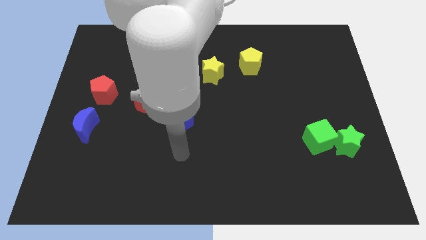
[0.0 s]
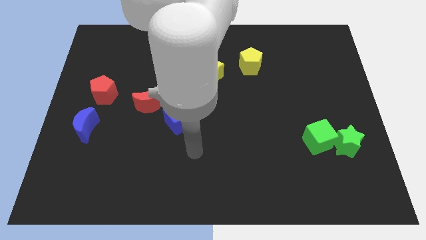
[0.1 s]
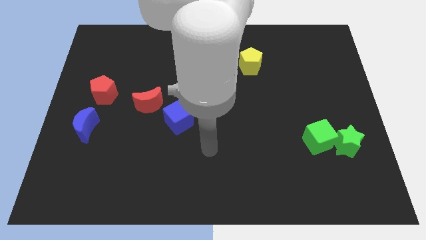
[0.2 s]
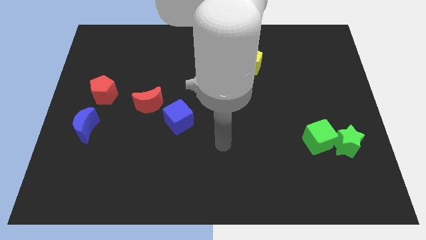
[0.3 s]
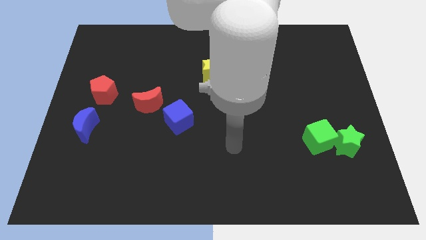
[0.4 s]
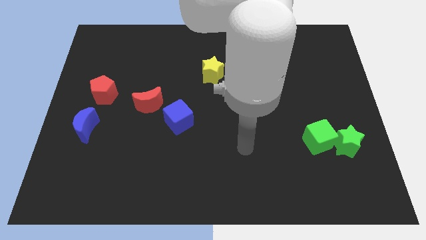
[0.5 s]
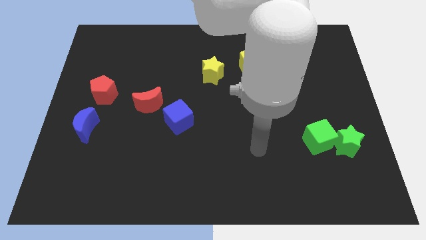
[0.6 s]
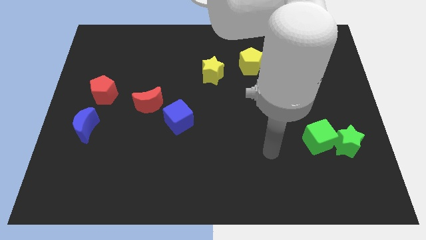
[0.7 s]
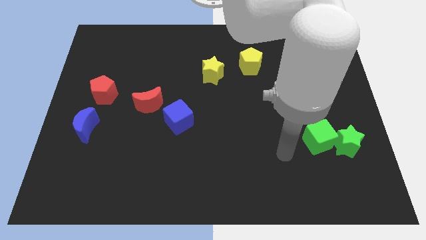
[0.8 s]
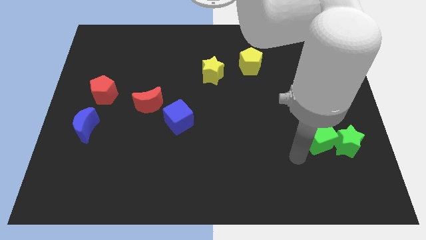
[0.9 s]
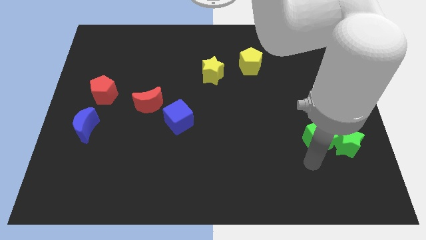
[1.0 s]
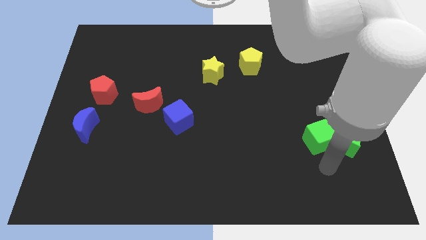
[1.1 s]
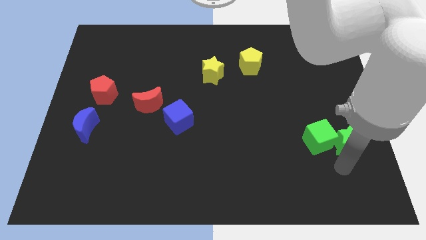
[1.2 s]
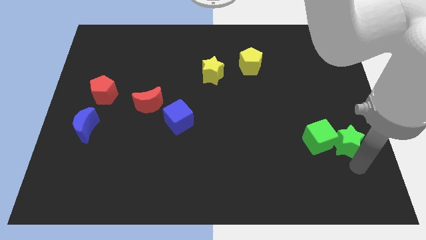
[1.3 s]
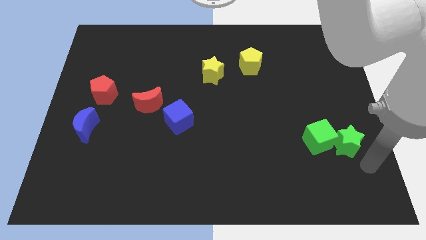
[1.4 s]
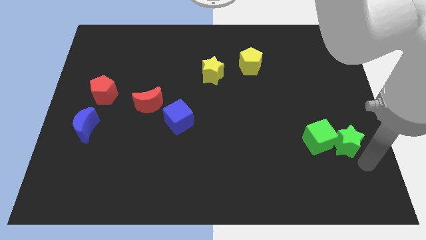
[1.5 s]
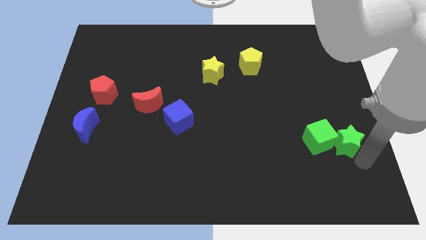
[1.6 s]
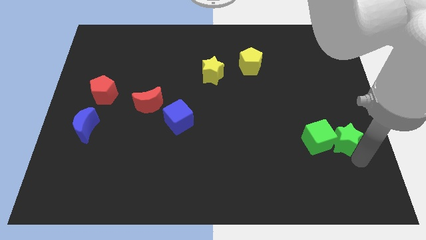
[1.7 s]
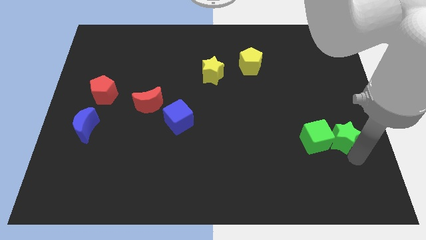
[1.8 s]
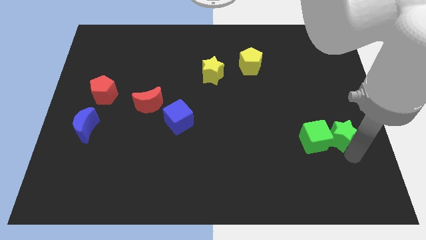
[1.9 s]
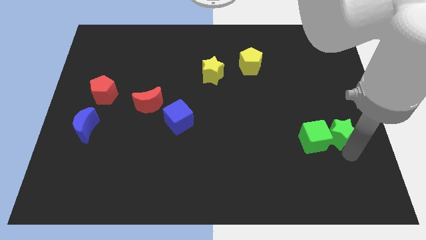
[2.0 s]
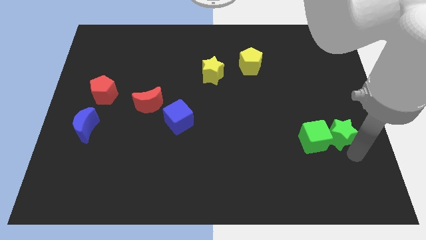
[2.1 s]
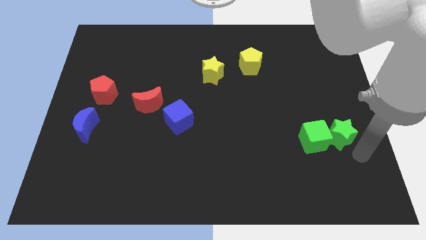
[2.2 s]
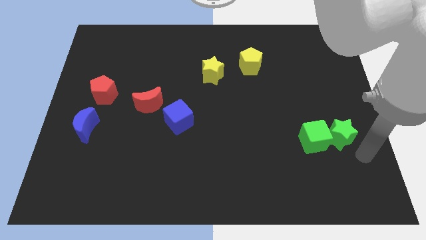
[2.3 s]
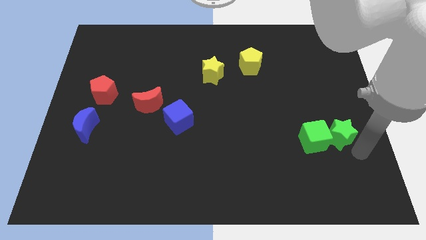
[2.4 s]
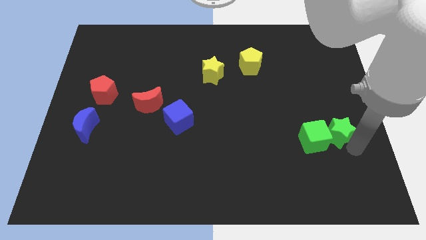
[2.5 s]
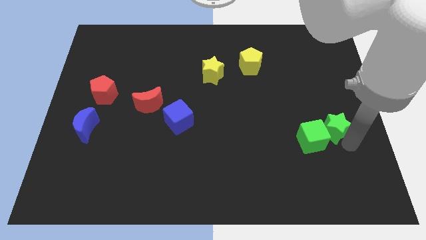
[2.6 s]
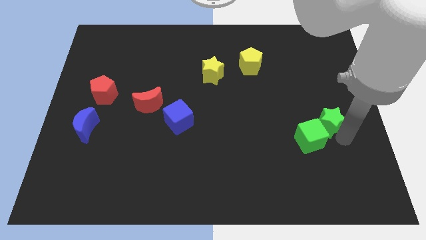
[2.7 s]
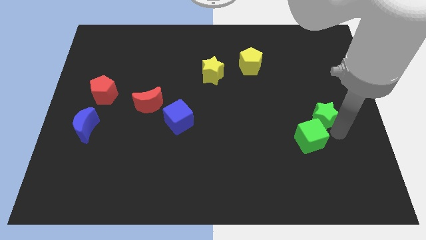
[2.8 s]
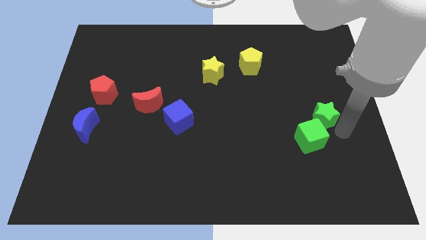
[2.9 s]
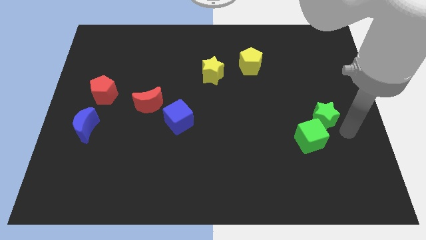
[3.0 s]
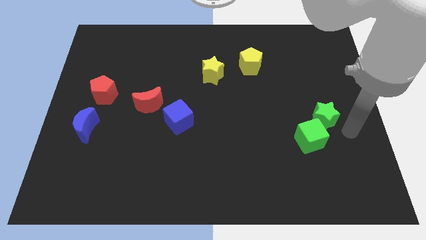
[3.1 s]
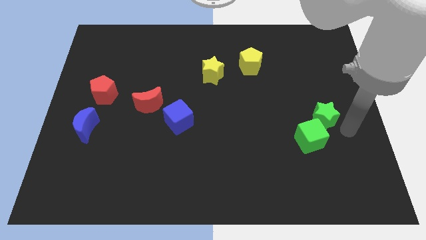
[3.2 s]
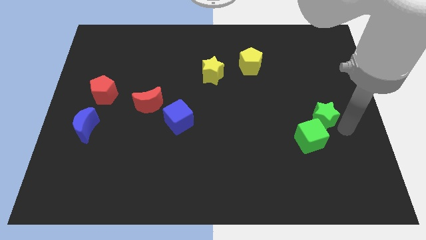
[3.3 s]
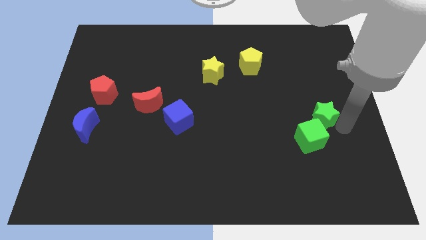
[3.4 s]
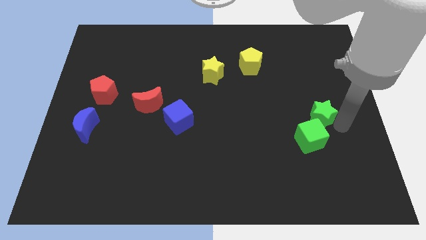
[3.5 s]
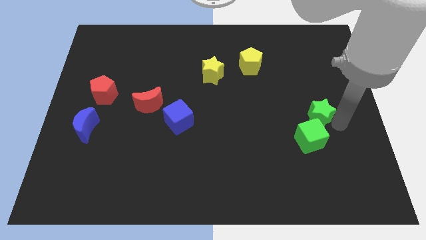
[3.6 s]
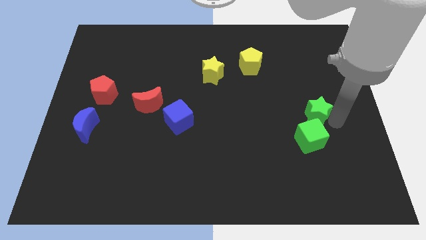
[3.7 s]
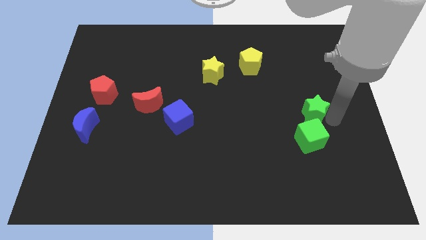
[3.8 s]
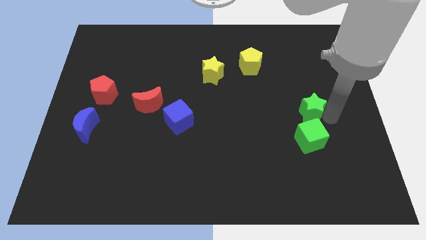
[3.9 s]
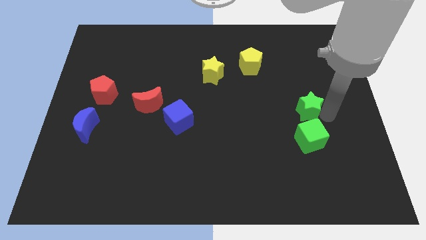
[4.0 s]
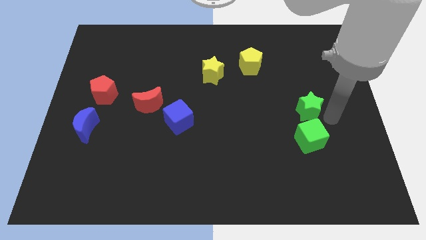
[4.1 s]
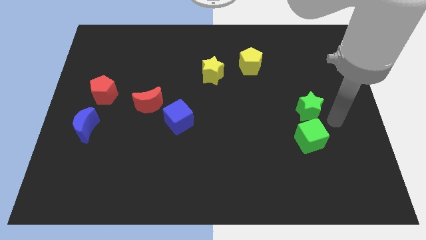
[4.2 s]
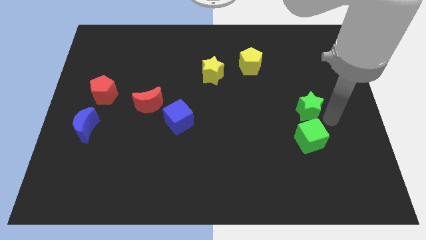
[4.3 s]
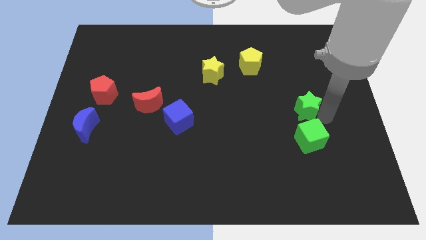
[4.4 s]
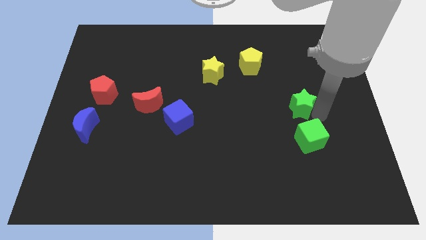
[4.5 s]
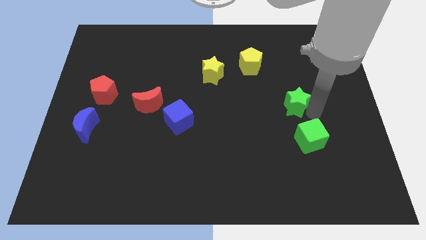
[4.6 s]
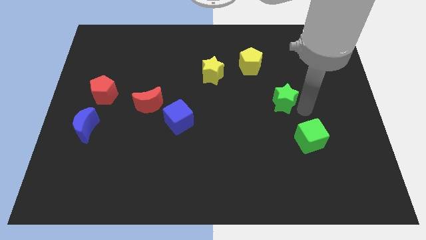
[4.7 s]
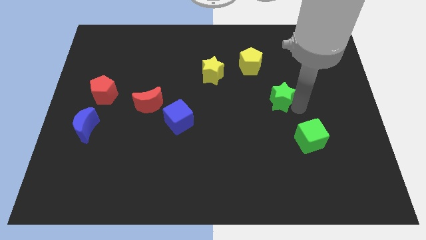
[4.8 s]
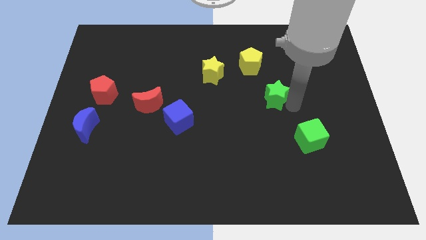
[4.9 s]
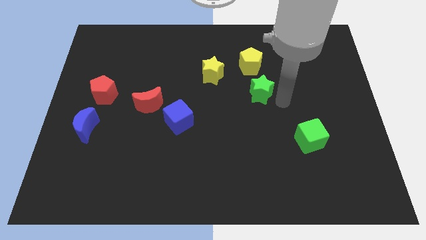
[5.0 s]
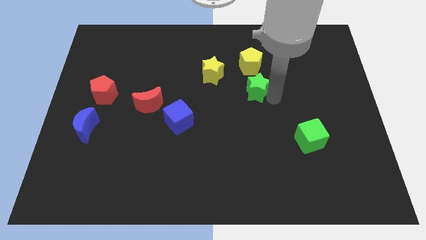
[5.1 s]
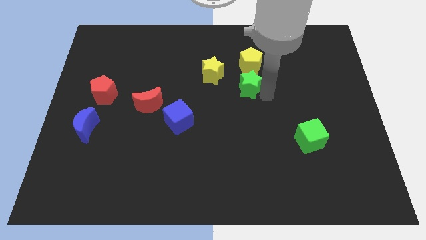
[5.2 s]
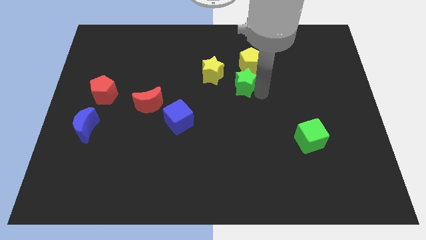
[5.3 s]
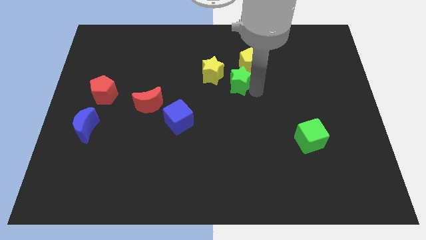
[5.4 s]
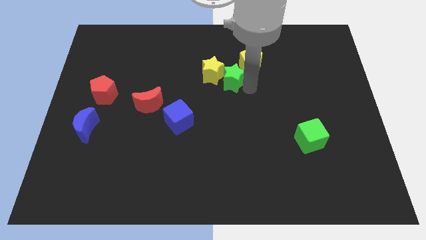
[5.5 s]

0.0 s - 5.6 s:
slide the green star close to the yellow star

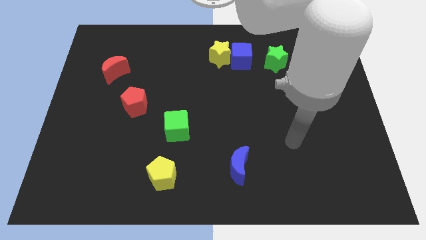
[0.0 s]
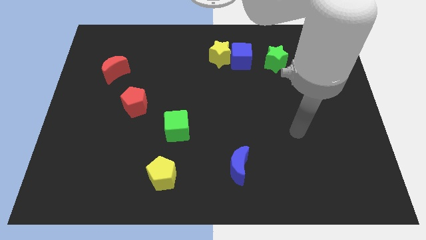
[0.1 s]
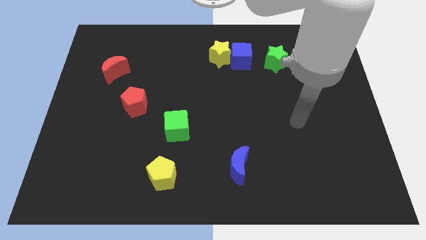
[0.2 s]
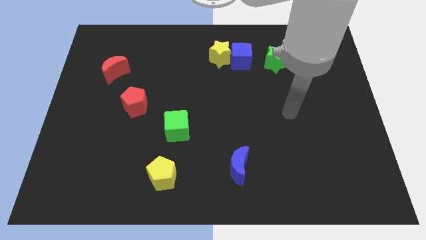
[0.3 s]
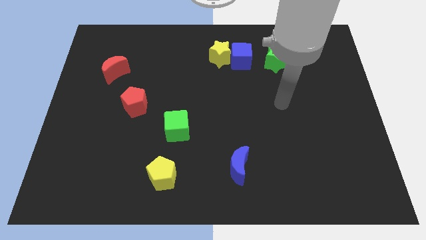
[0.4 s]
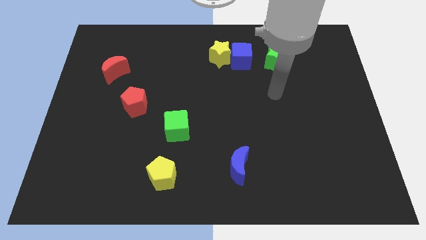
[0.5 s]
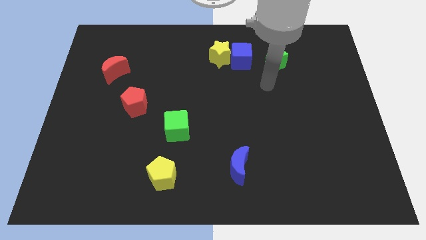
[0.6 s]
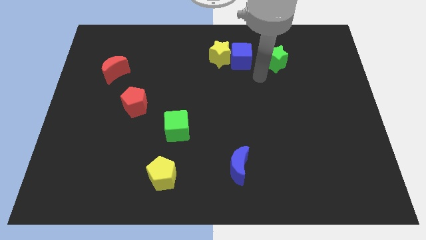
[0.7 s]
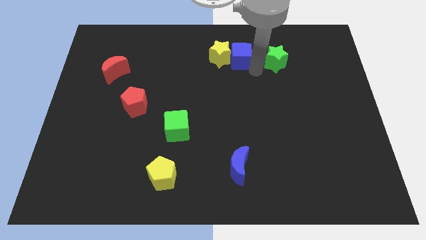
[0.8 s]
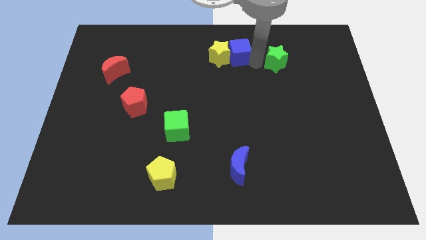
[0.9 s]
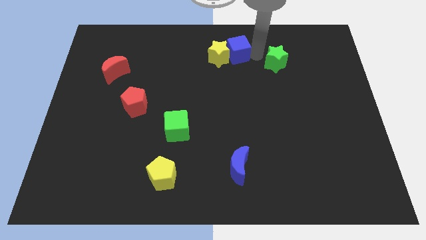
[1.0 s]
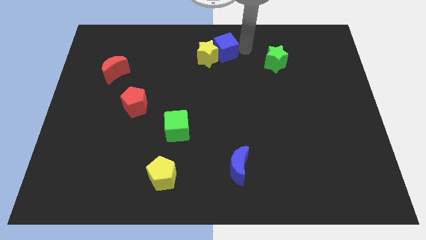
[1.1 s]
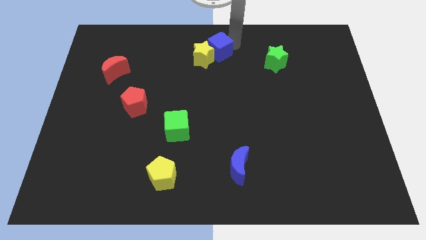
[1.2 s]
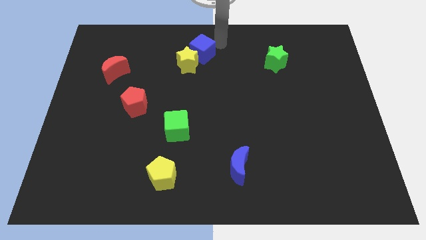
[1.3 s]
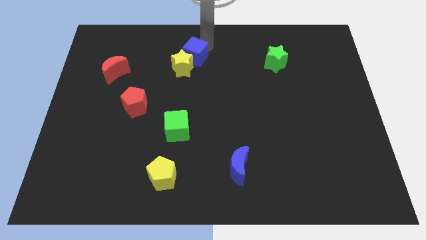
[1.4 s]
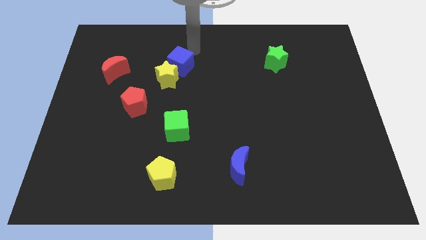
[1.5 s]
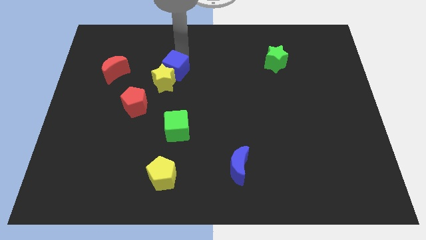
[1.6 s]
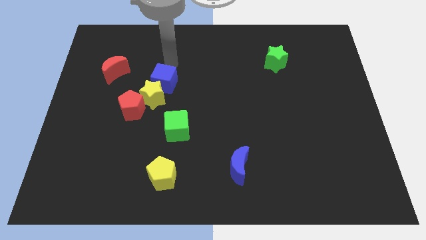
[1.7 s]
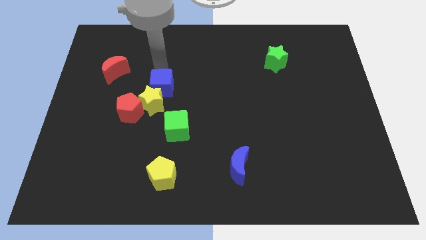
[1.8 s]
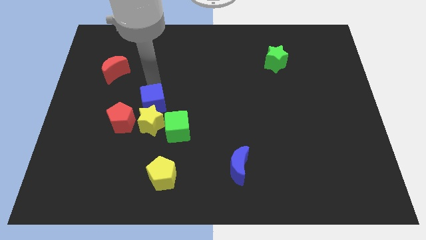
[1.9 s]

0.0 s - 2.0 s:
put the yellow star towards the green cube
